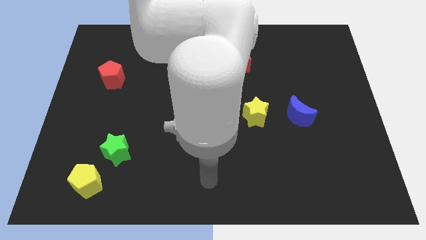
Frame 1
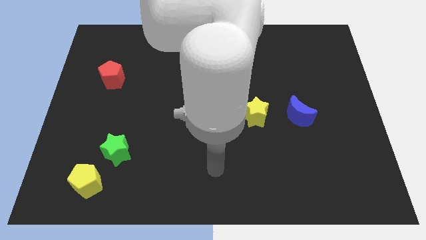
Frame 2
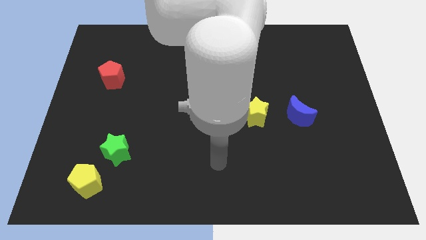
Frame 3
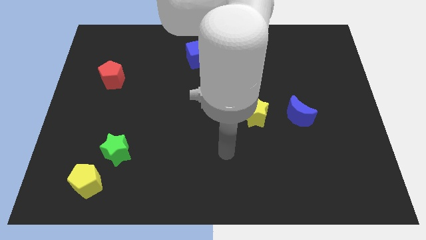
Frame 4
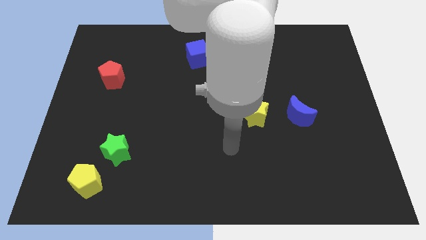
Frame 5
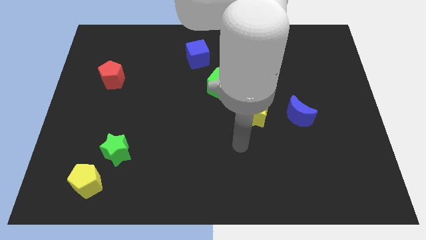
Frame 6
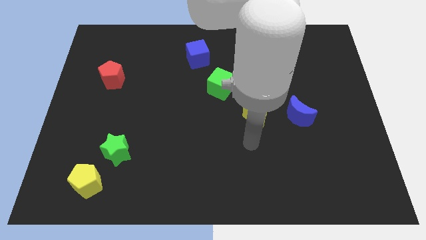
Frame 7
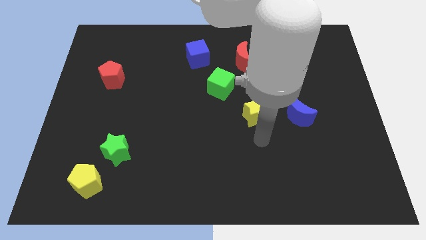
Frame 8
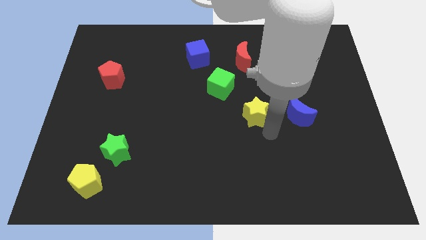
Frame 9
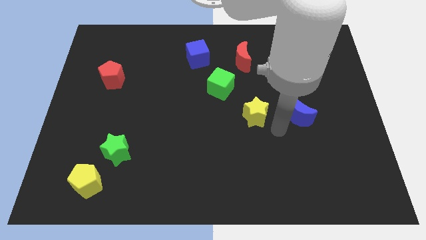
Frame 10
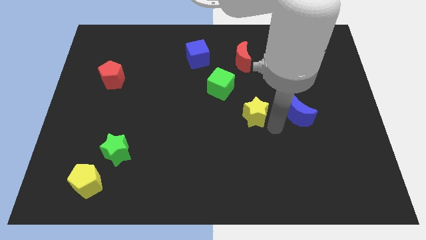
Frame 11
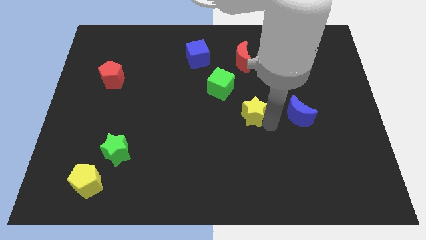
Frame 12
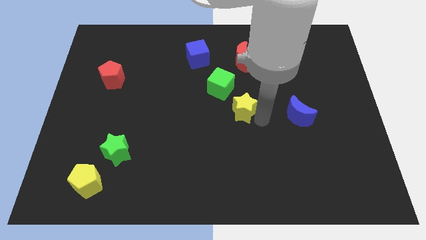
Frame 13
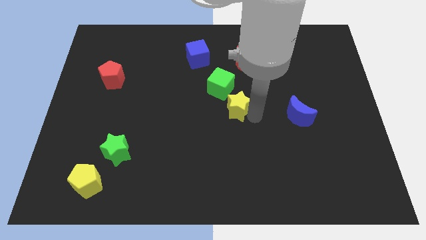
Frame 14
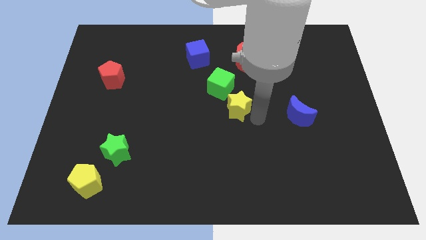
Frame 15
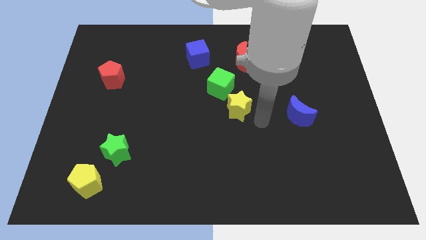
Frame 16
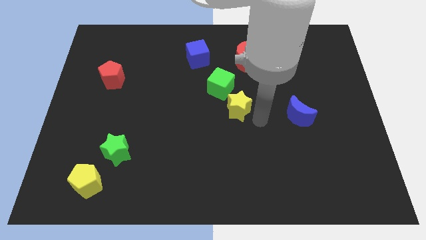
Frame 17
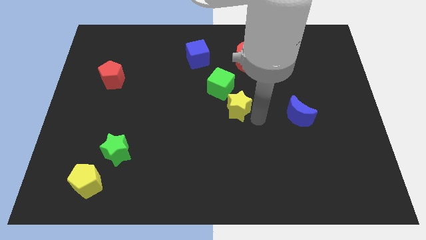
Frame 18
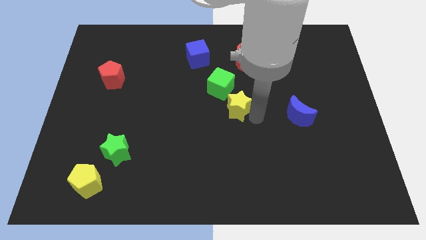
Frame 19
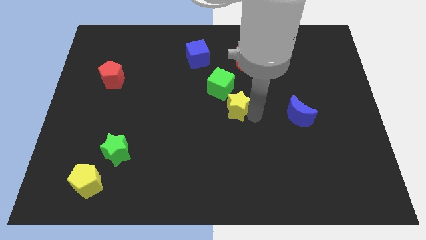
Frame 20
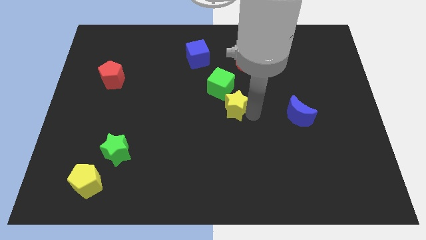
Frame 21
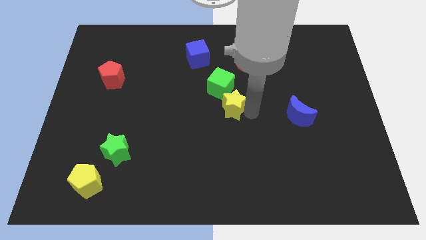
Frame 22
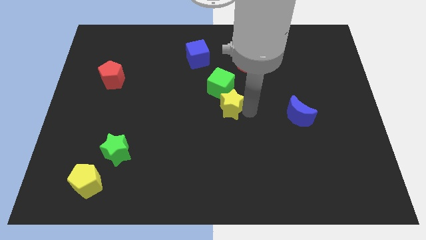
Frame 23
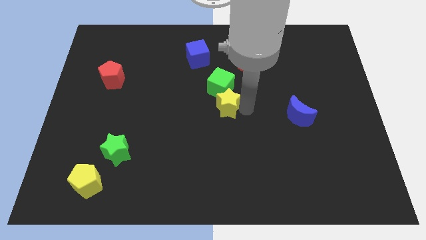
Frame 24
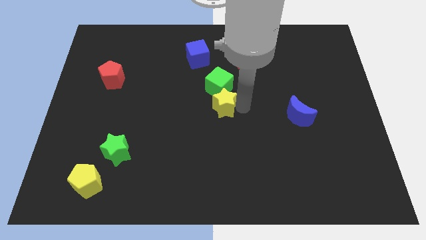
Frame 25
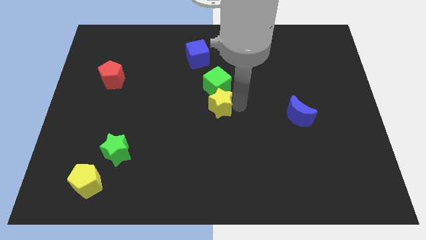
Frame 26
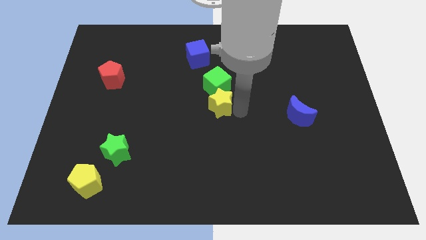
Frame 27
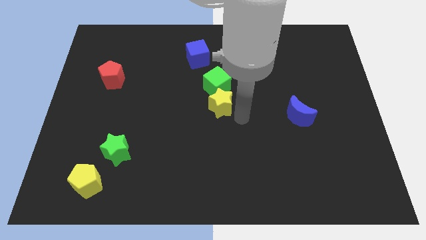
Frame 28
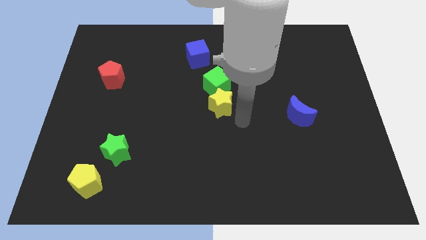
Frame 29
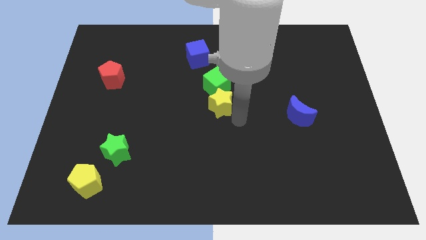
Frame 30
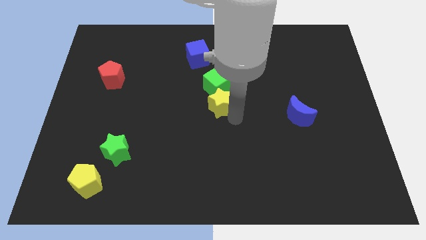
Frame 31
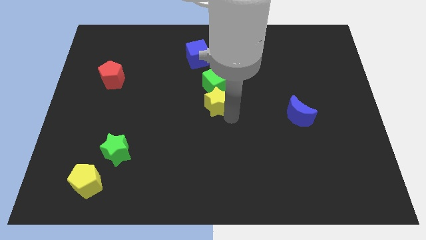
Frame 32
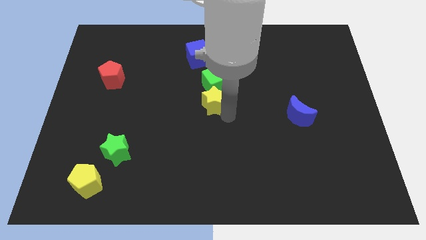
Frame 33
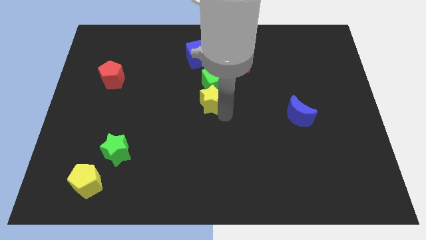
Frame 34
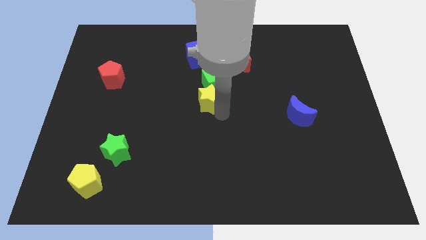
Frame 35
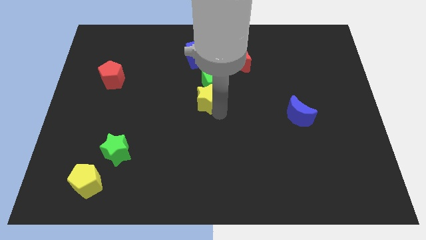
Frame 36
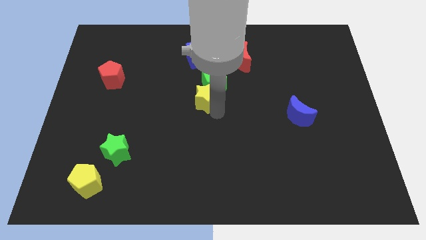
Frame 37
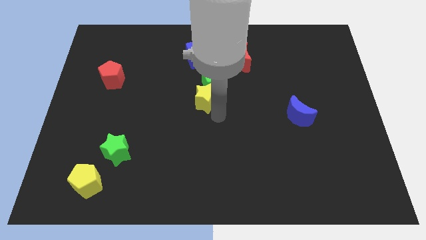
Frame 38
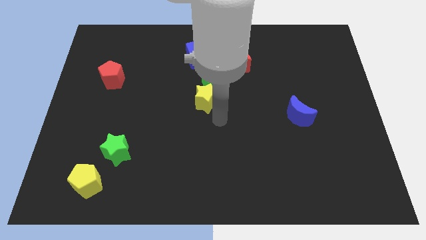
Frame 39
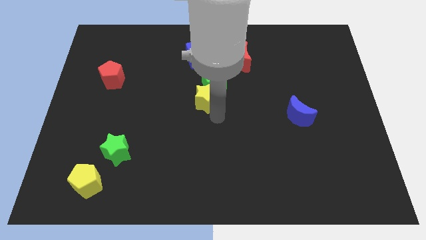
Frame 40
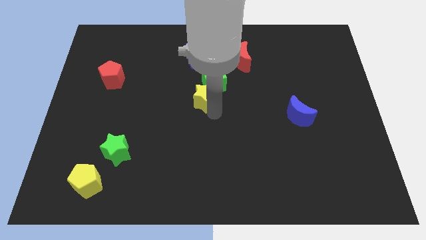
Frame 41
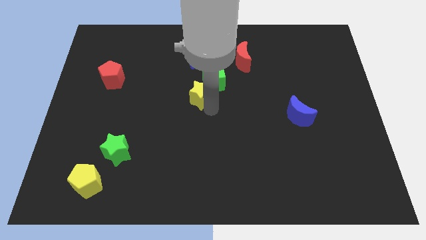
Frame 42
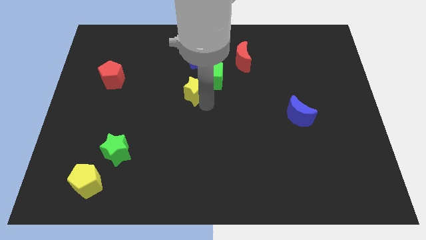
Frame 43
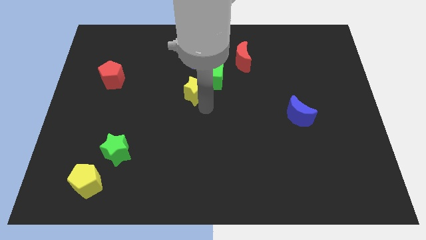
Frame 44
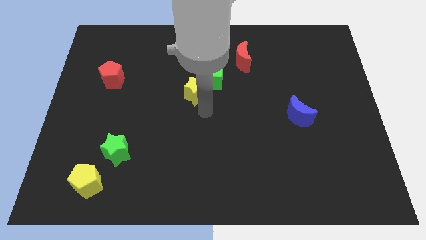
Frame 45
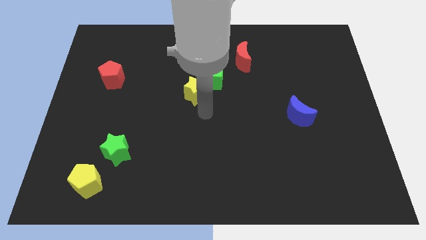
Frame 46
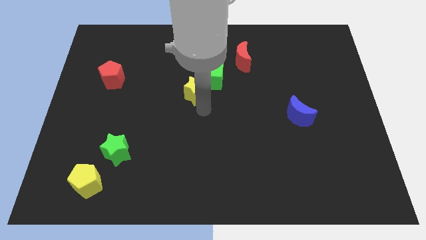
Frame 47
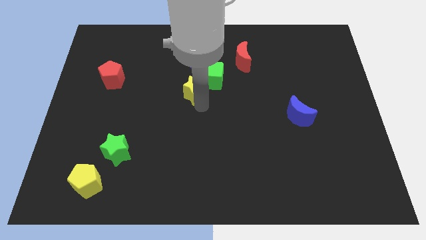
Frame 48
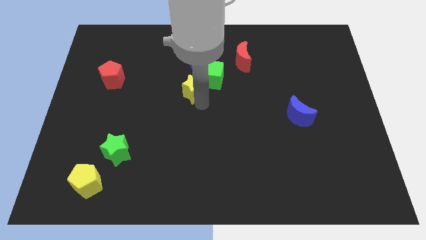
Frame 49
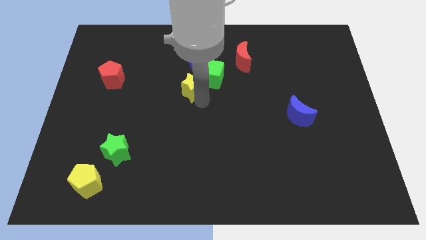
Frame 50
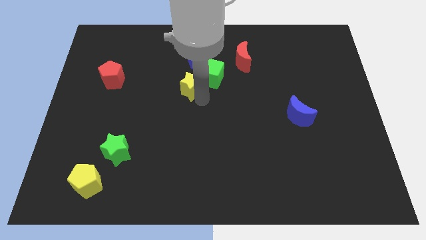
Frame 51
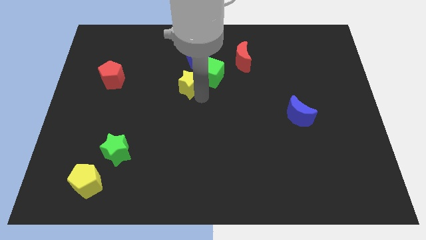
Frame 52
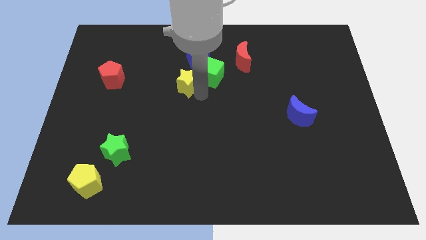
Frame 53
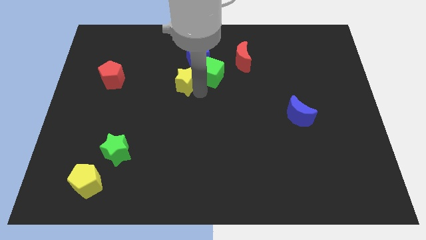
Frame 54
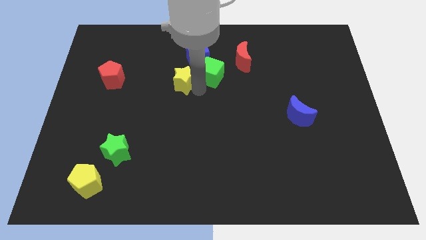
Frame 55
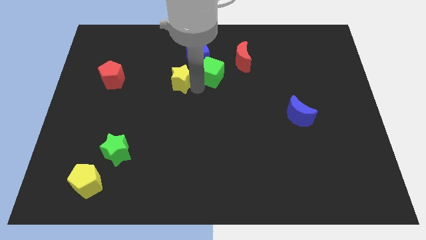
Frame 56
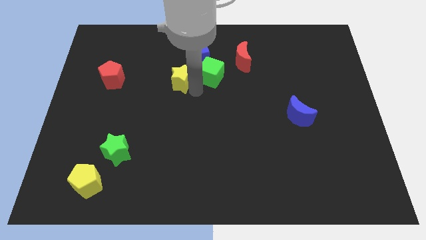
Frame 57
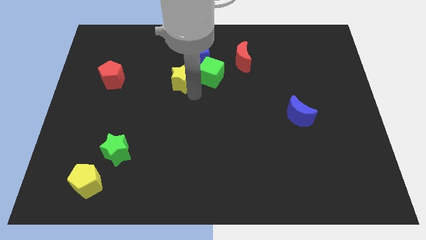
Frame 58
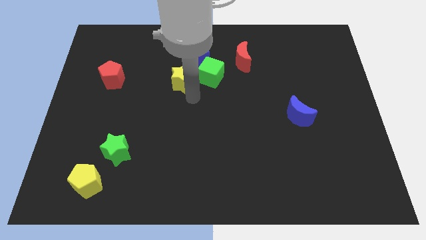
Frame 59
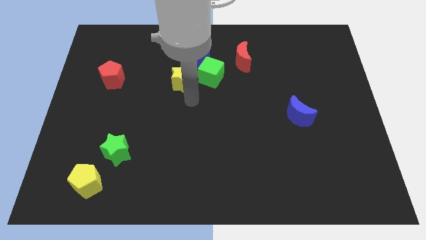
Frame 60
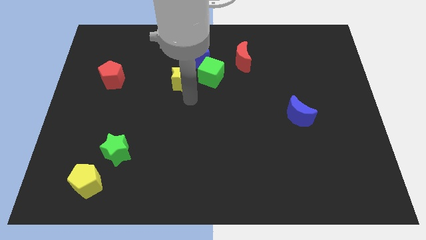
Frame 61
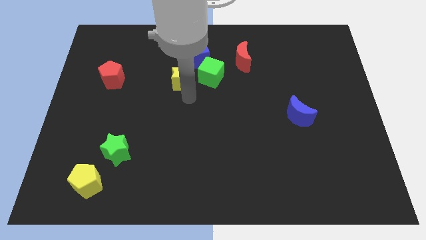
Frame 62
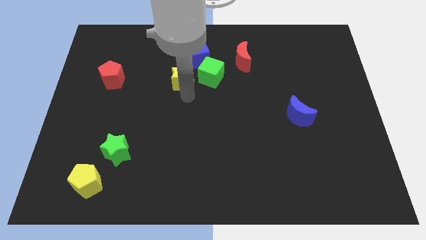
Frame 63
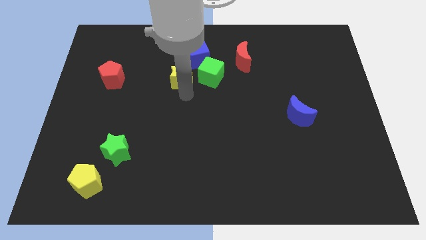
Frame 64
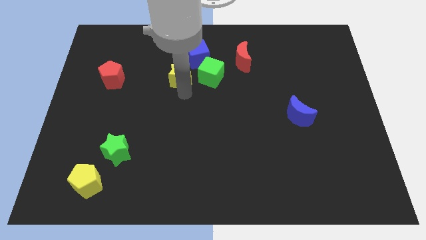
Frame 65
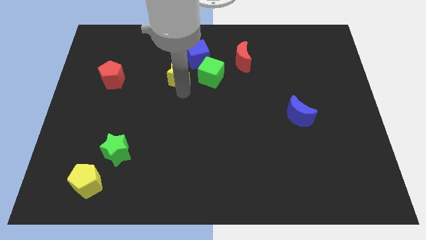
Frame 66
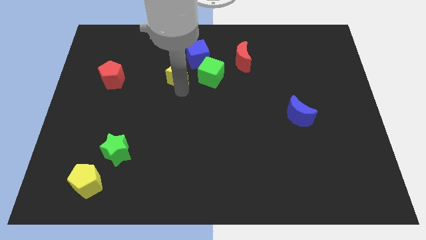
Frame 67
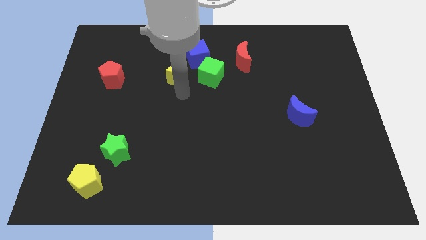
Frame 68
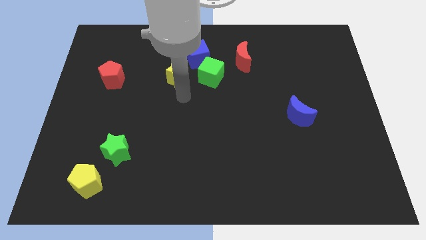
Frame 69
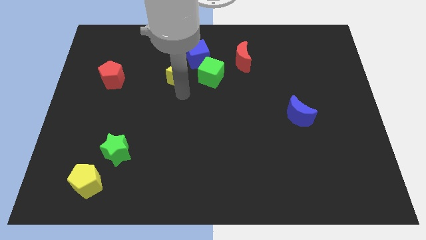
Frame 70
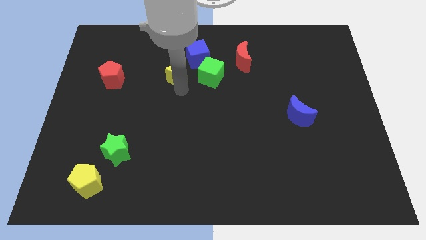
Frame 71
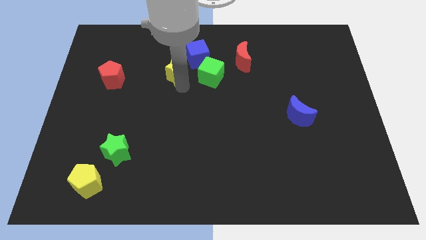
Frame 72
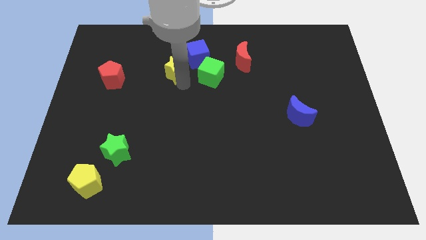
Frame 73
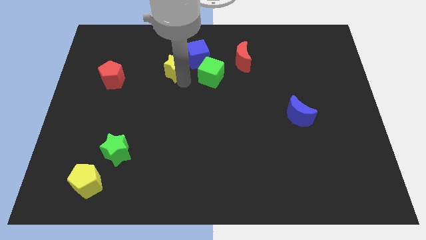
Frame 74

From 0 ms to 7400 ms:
slide the yellow star just left of the blue cube

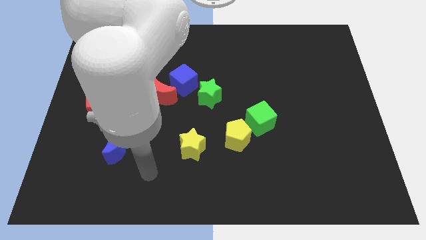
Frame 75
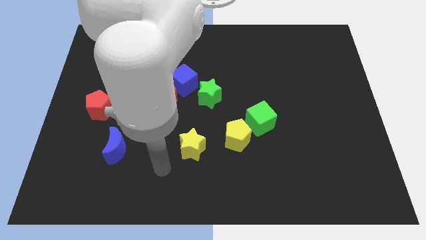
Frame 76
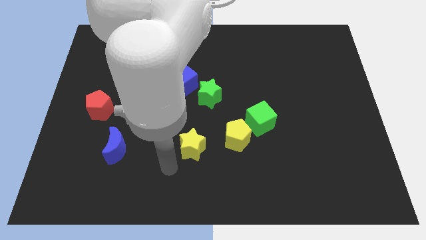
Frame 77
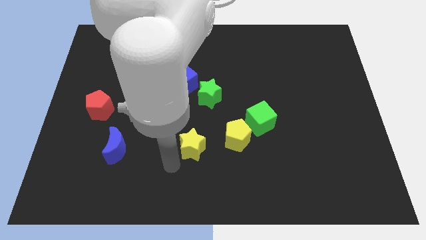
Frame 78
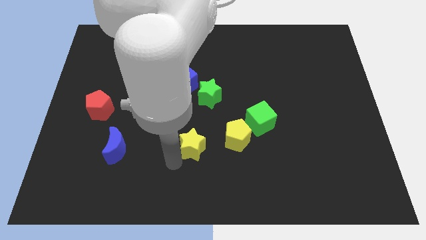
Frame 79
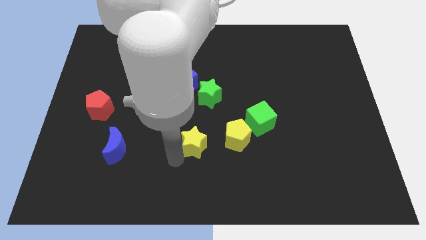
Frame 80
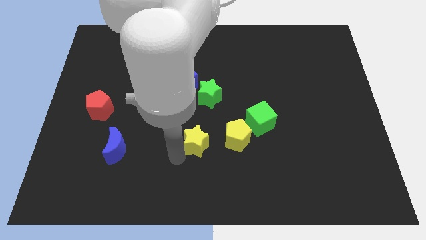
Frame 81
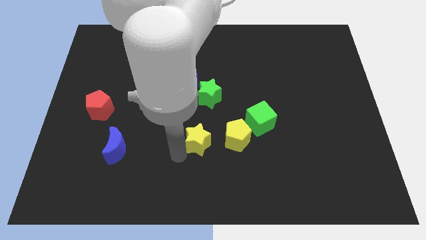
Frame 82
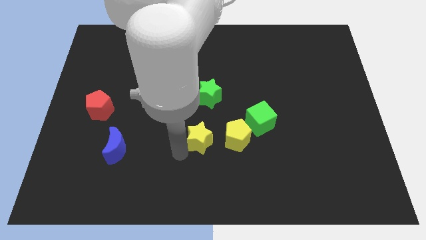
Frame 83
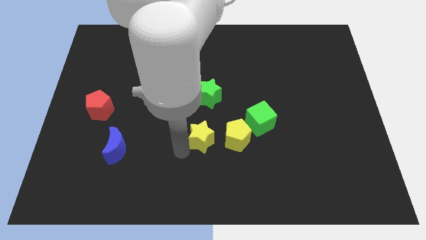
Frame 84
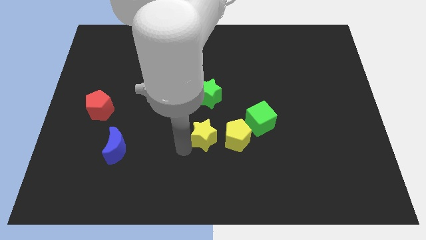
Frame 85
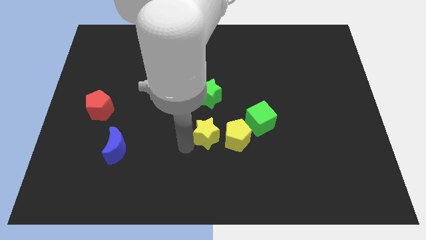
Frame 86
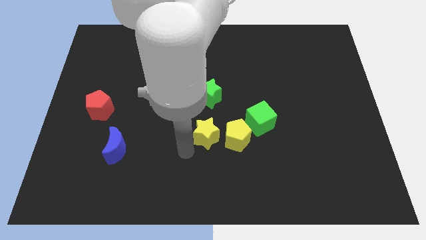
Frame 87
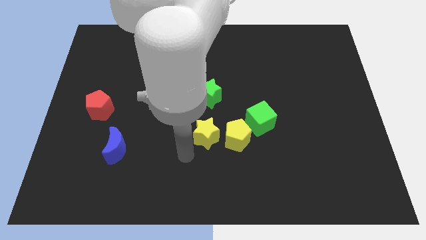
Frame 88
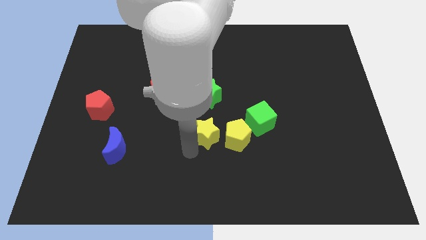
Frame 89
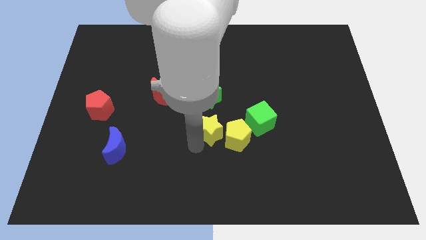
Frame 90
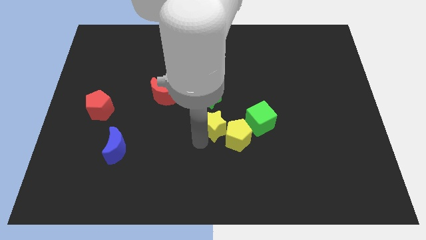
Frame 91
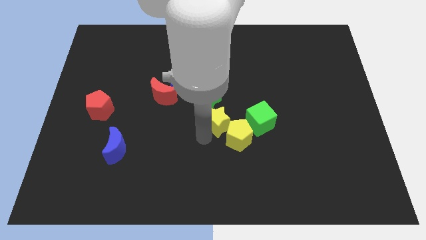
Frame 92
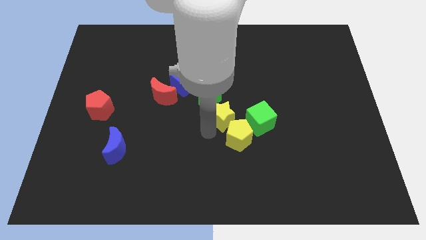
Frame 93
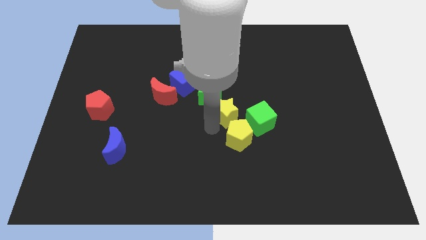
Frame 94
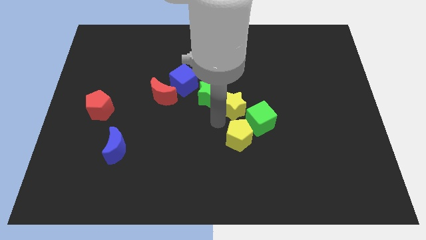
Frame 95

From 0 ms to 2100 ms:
move the yellow star right of the green star
